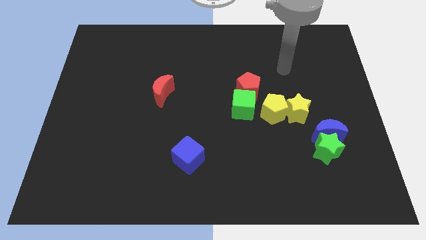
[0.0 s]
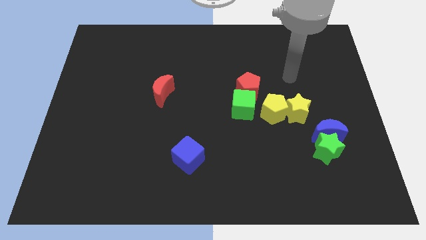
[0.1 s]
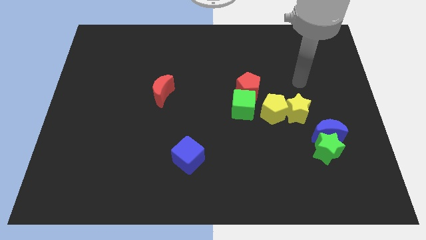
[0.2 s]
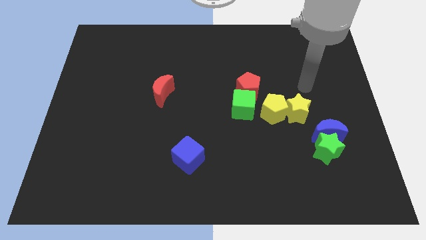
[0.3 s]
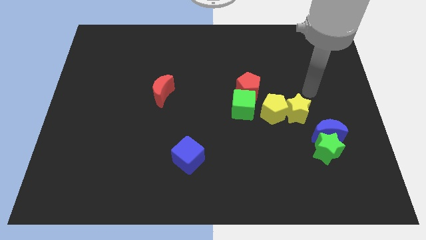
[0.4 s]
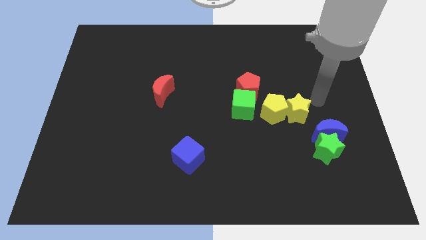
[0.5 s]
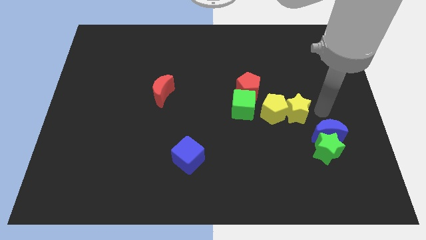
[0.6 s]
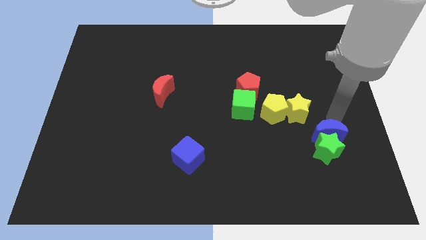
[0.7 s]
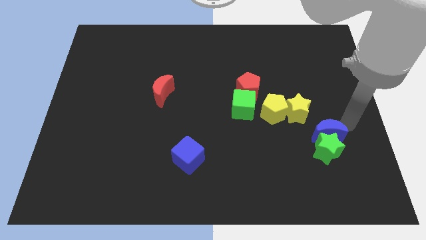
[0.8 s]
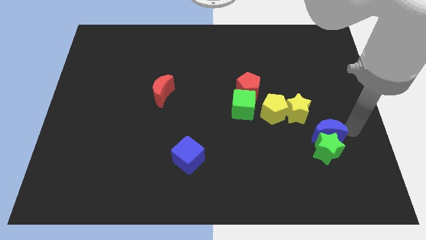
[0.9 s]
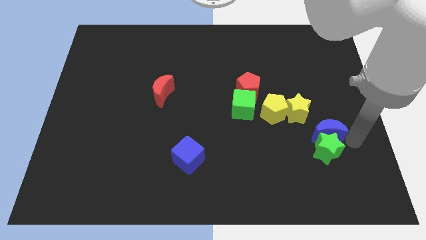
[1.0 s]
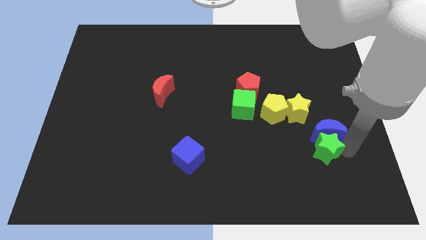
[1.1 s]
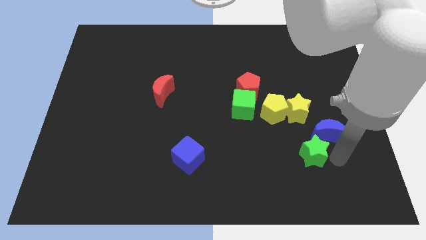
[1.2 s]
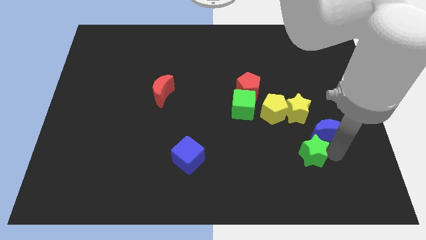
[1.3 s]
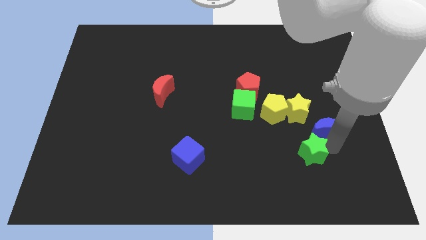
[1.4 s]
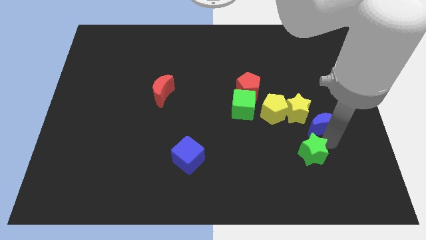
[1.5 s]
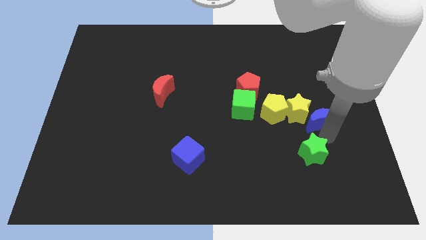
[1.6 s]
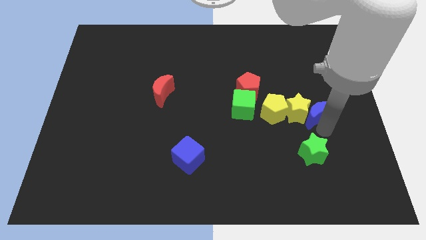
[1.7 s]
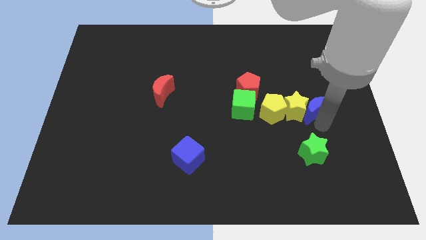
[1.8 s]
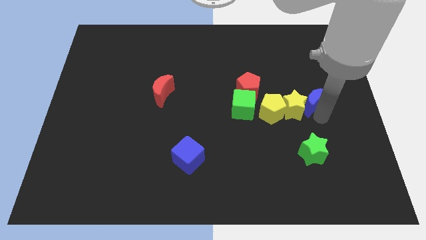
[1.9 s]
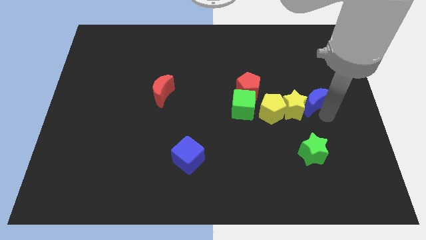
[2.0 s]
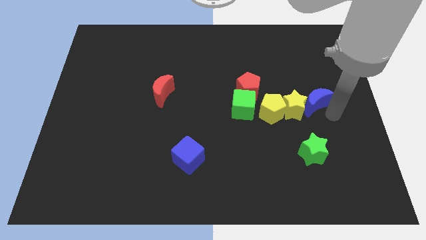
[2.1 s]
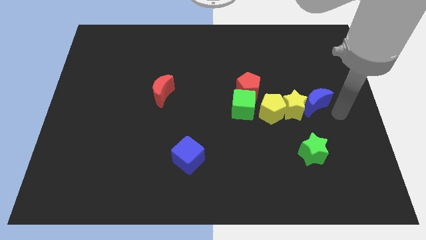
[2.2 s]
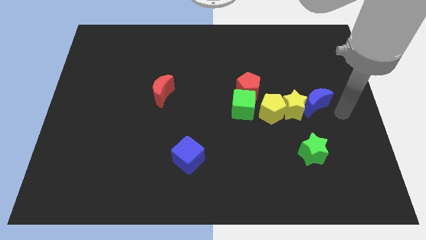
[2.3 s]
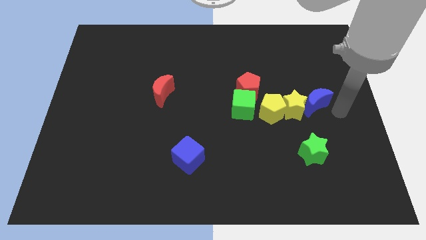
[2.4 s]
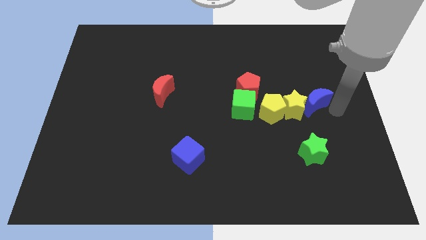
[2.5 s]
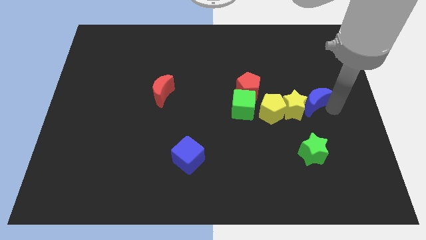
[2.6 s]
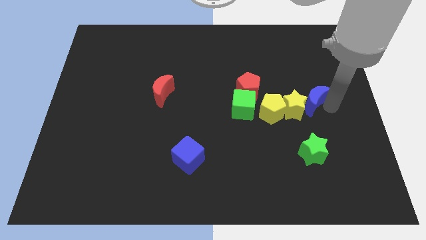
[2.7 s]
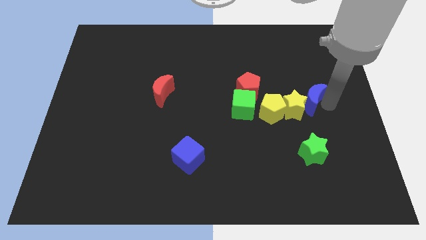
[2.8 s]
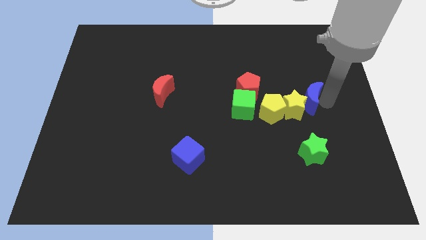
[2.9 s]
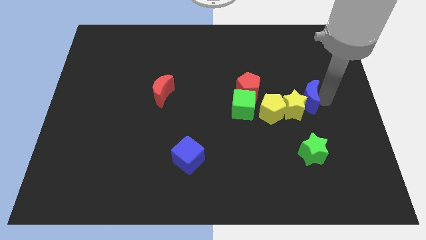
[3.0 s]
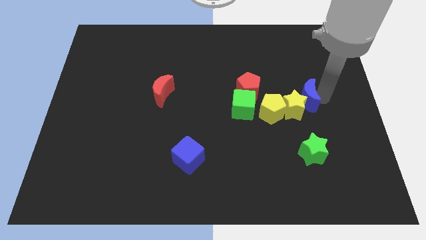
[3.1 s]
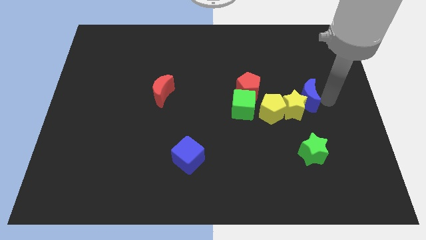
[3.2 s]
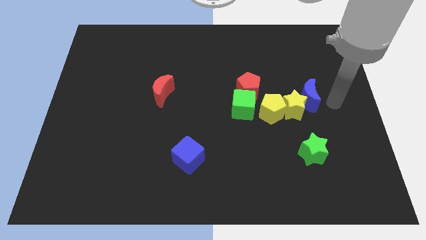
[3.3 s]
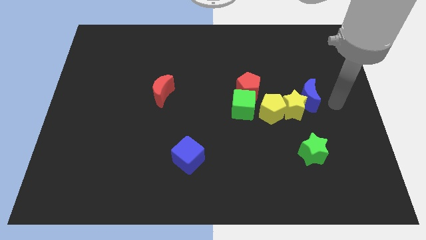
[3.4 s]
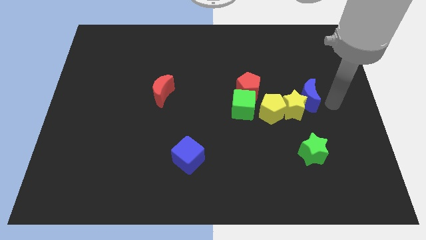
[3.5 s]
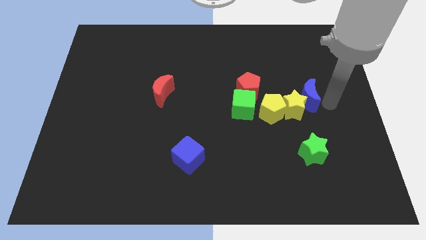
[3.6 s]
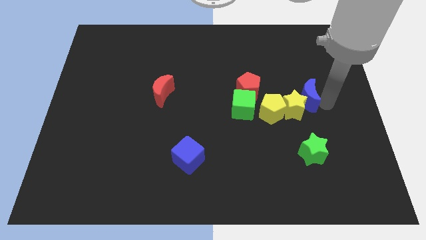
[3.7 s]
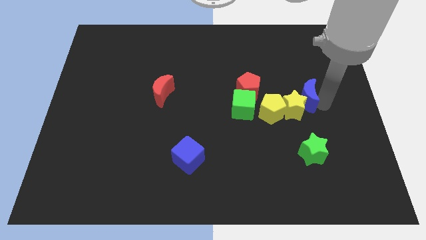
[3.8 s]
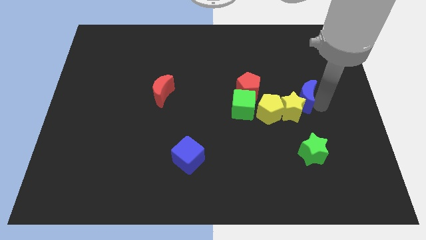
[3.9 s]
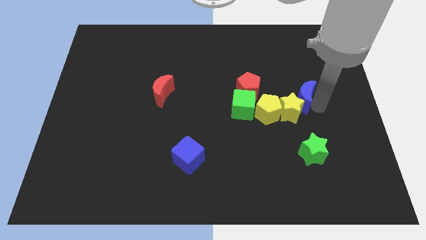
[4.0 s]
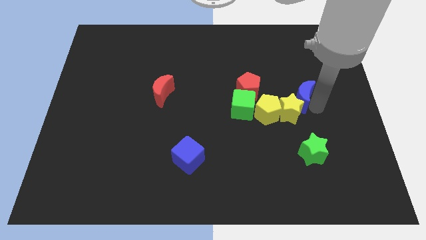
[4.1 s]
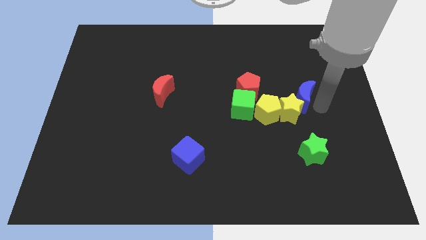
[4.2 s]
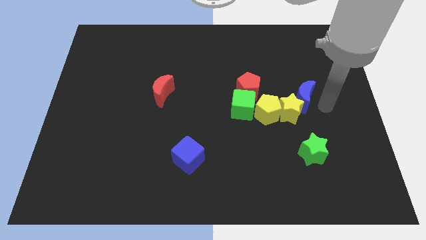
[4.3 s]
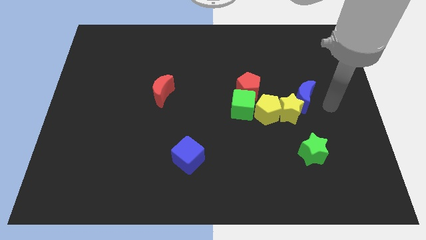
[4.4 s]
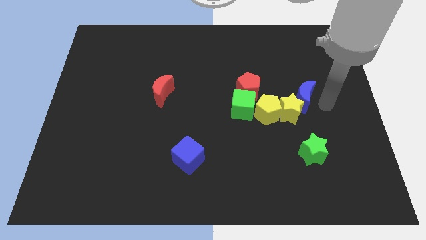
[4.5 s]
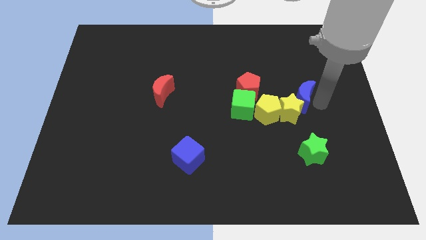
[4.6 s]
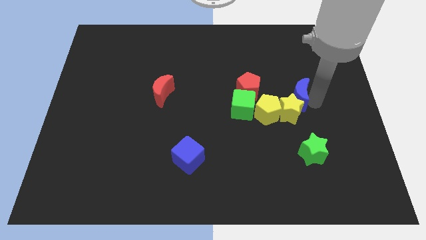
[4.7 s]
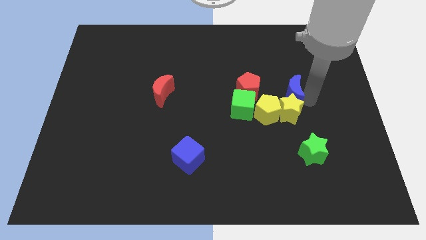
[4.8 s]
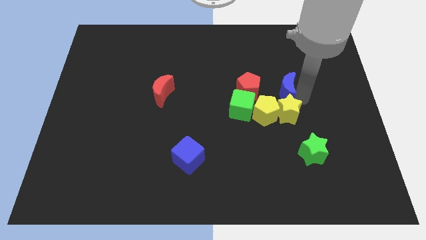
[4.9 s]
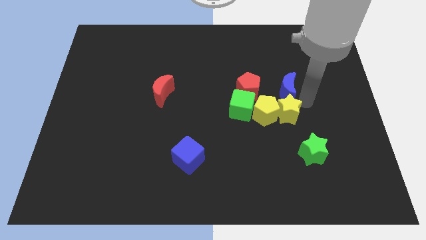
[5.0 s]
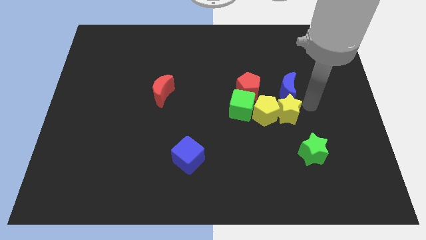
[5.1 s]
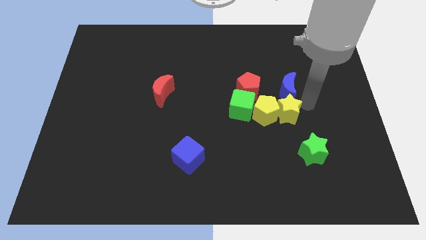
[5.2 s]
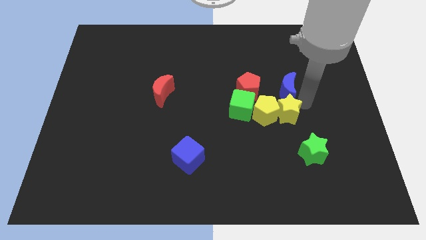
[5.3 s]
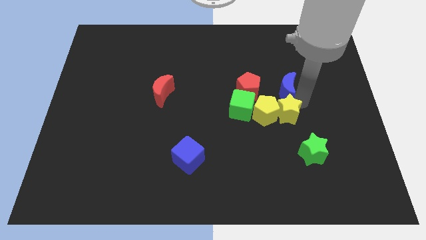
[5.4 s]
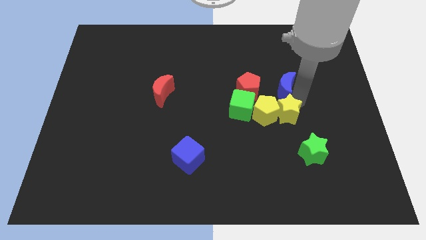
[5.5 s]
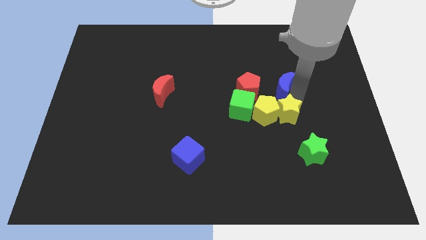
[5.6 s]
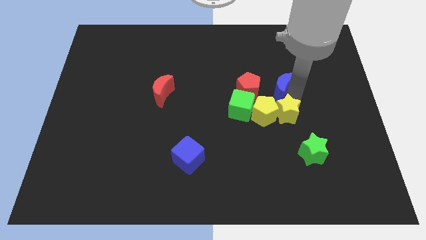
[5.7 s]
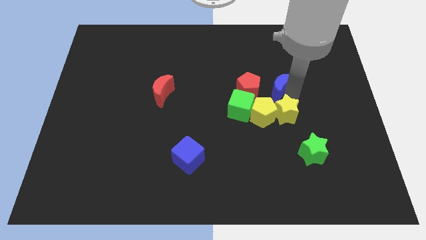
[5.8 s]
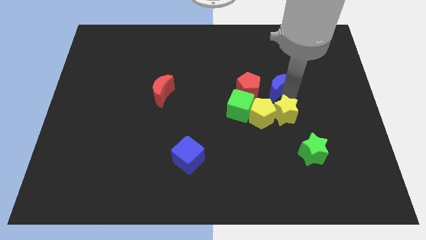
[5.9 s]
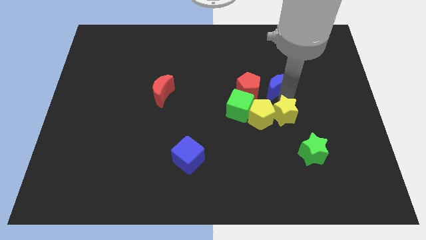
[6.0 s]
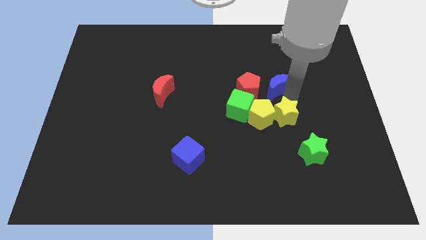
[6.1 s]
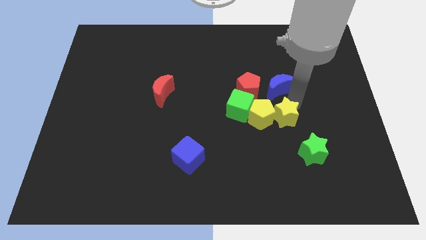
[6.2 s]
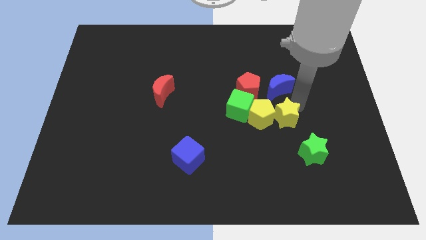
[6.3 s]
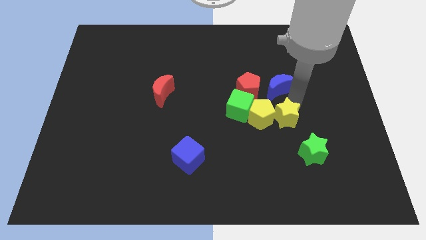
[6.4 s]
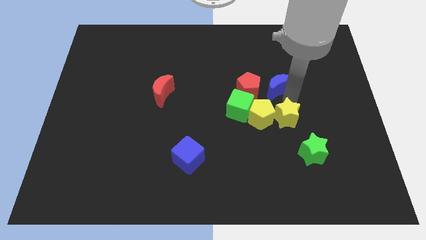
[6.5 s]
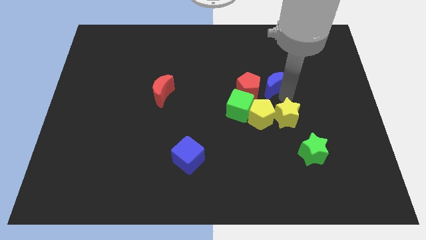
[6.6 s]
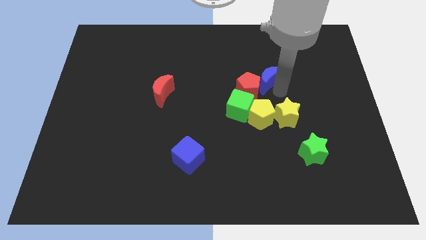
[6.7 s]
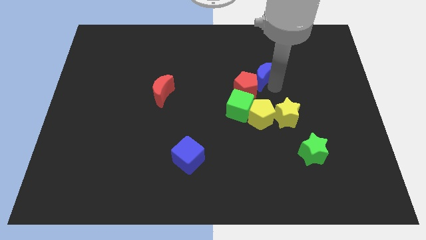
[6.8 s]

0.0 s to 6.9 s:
push the blue moon upwards and then to the left

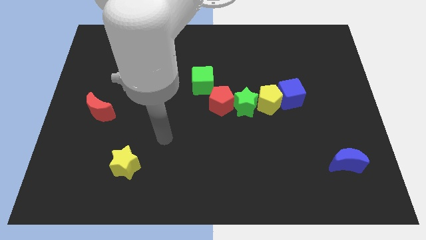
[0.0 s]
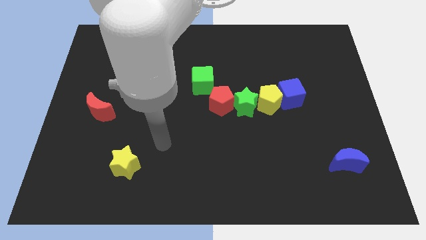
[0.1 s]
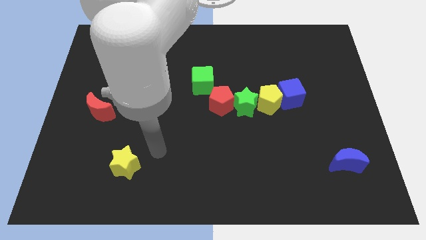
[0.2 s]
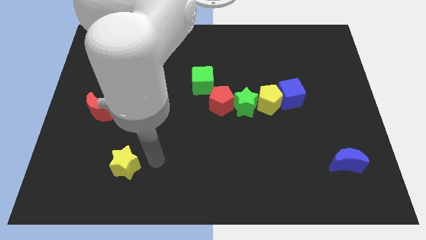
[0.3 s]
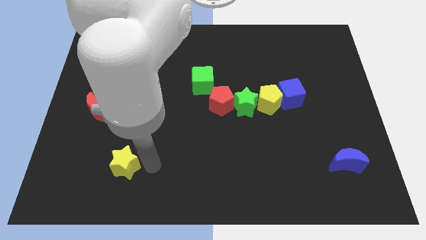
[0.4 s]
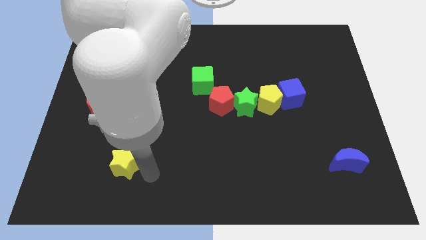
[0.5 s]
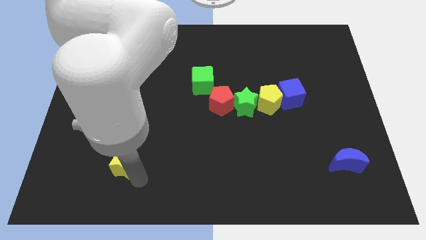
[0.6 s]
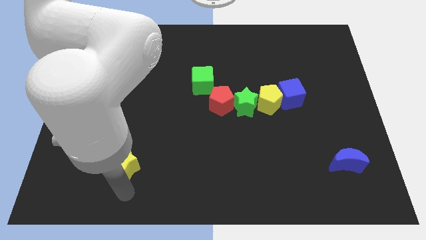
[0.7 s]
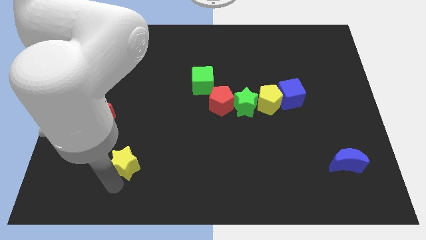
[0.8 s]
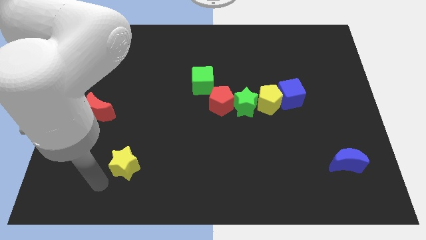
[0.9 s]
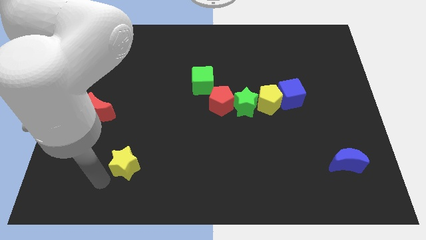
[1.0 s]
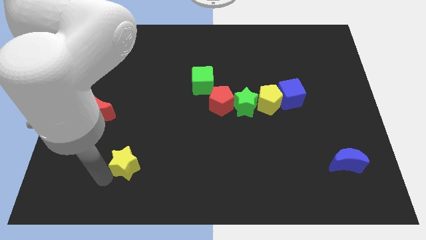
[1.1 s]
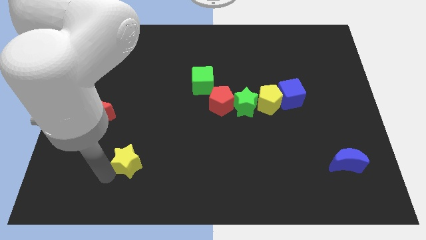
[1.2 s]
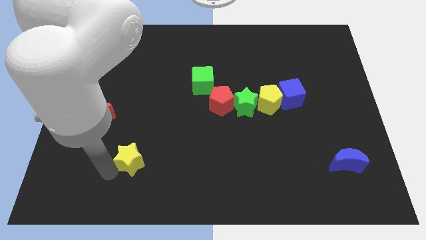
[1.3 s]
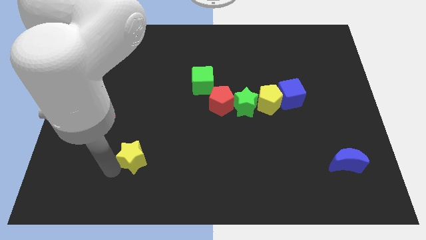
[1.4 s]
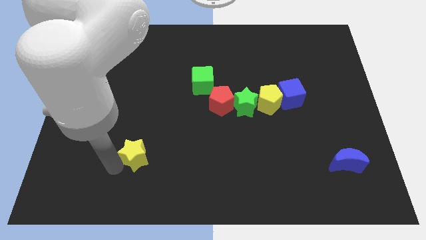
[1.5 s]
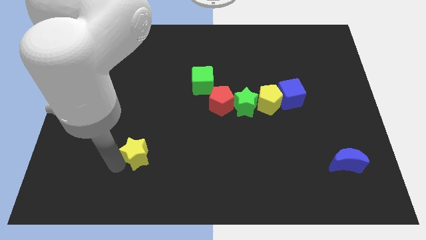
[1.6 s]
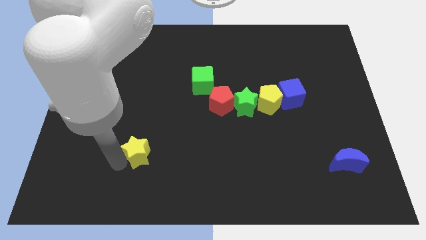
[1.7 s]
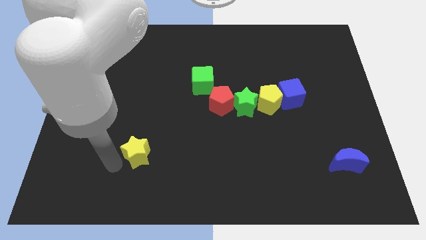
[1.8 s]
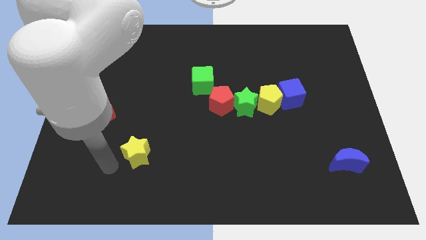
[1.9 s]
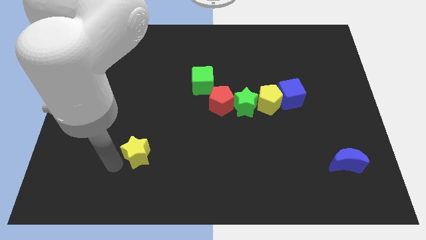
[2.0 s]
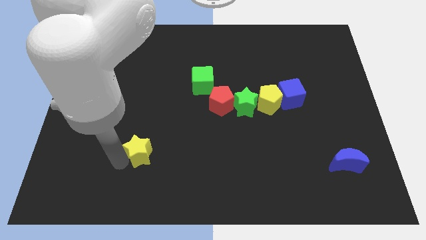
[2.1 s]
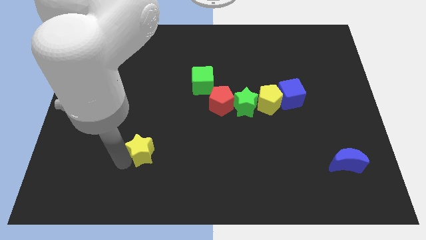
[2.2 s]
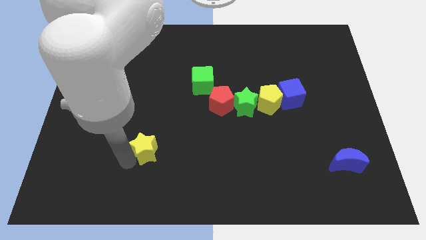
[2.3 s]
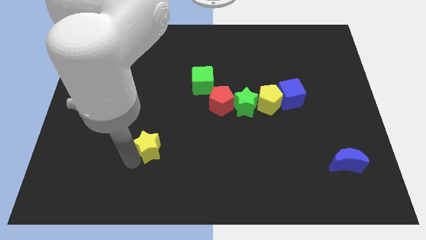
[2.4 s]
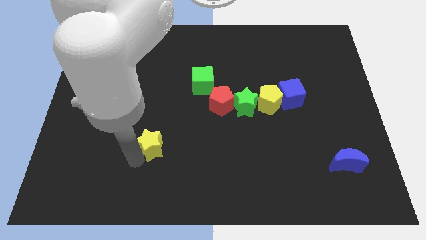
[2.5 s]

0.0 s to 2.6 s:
slightly move the yellow star up and to the right diagonally
